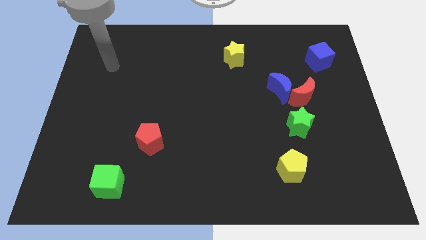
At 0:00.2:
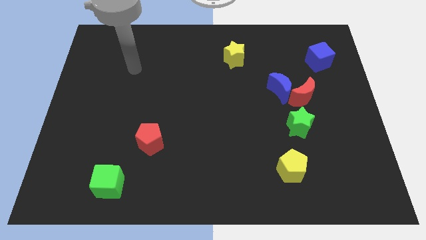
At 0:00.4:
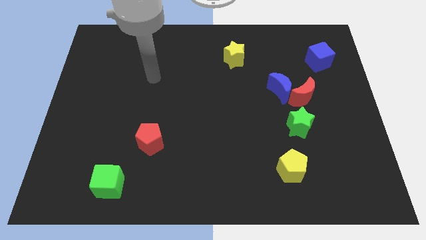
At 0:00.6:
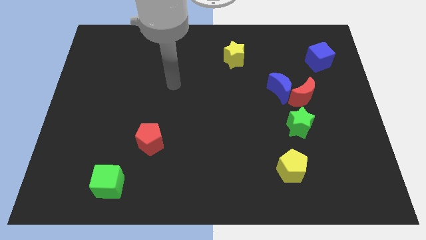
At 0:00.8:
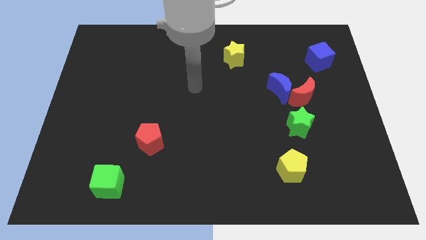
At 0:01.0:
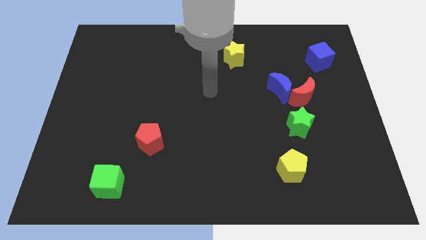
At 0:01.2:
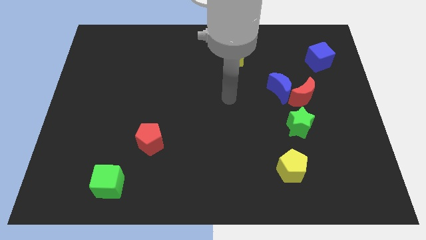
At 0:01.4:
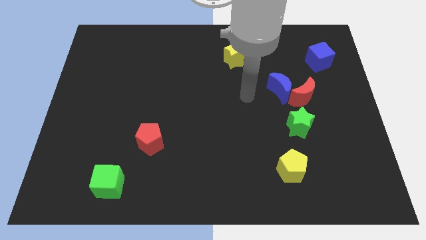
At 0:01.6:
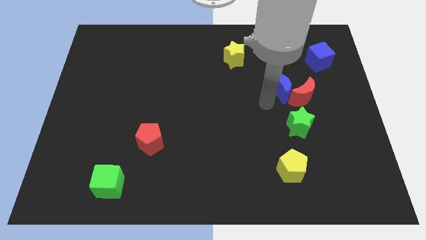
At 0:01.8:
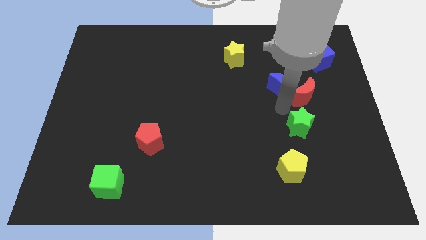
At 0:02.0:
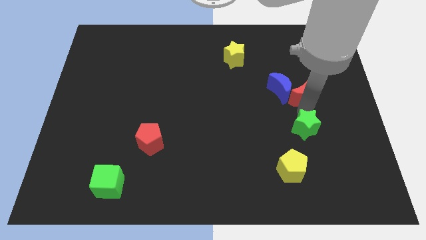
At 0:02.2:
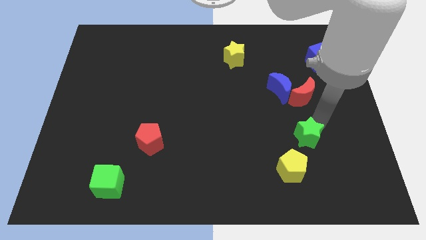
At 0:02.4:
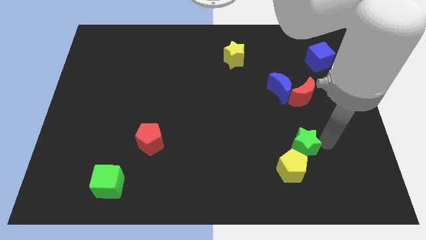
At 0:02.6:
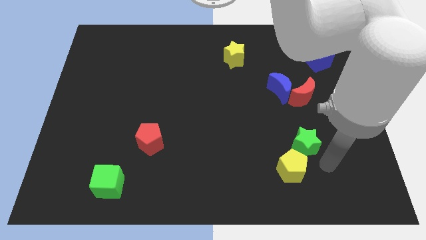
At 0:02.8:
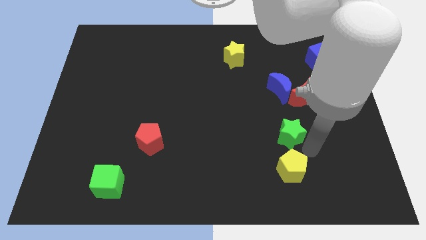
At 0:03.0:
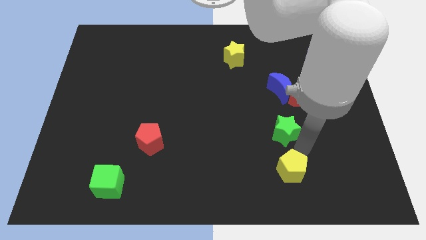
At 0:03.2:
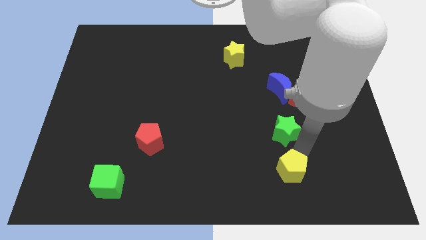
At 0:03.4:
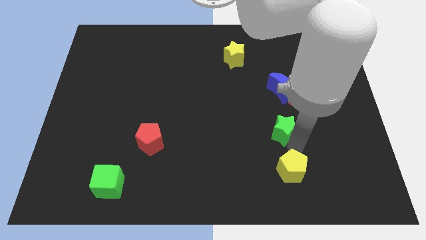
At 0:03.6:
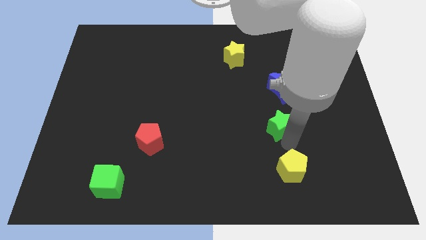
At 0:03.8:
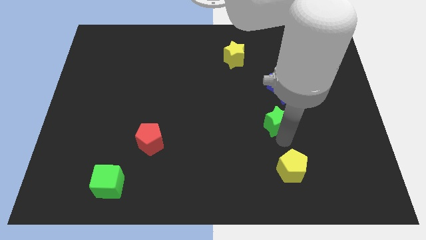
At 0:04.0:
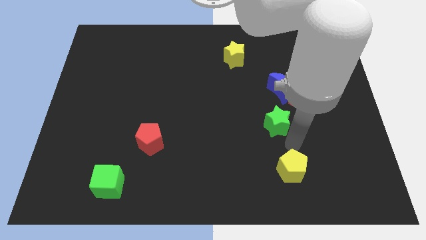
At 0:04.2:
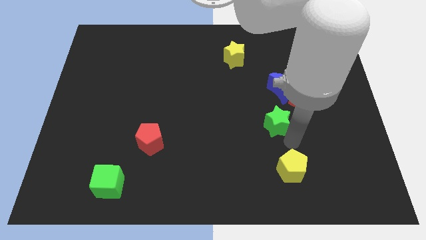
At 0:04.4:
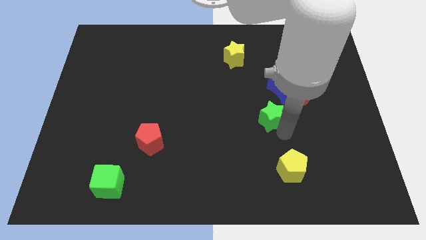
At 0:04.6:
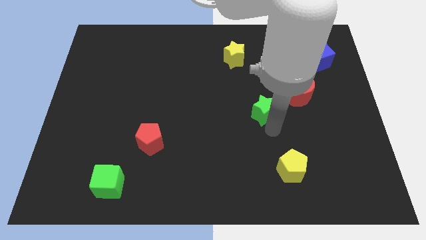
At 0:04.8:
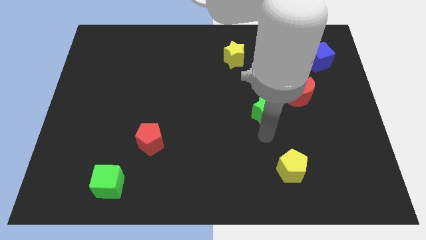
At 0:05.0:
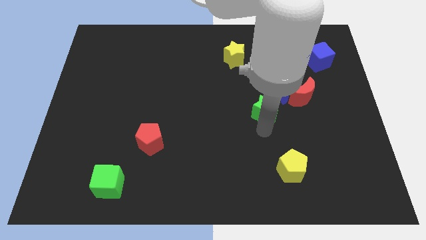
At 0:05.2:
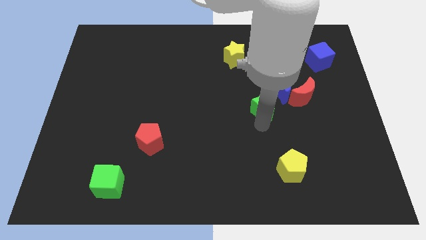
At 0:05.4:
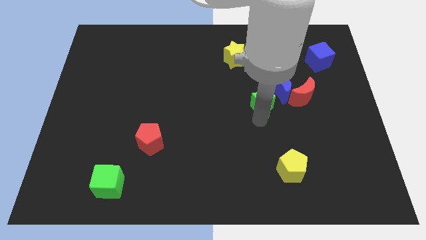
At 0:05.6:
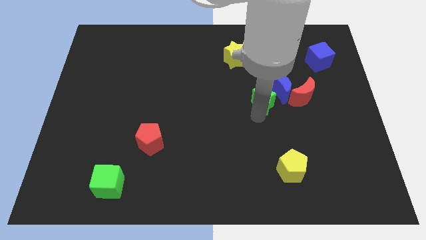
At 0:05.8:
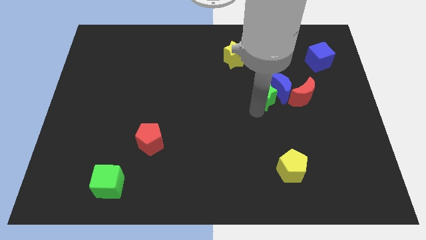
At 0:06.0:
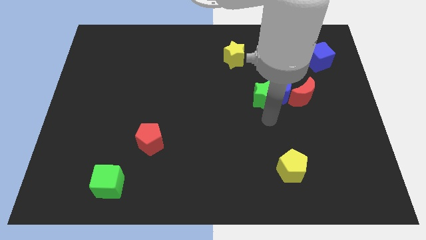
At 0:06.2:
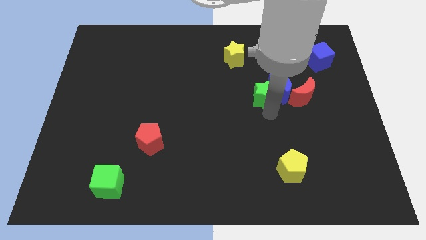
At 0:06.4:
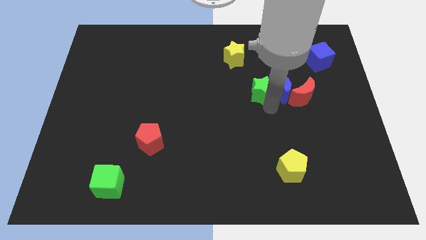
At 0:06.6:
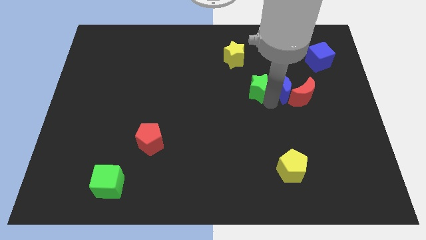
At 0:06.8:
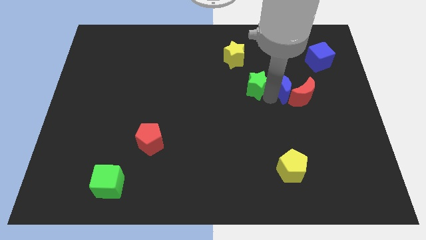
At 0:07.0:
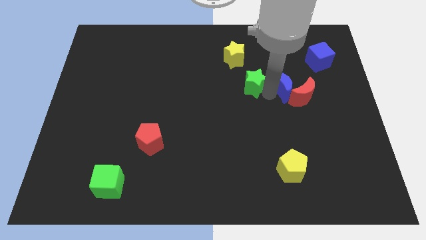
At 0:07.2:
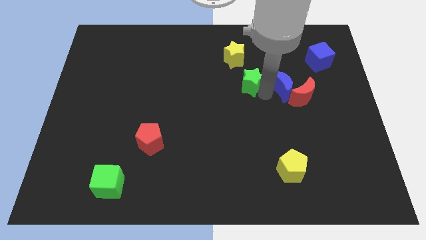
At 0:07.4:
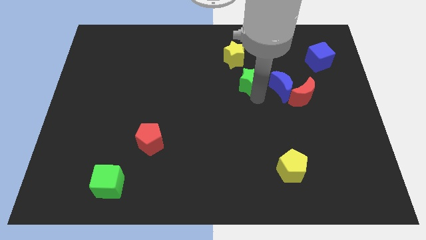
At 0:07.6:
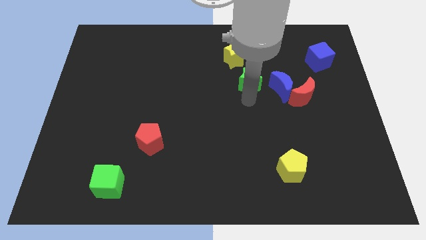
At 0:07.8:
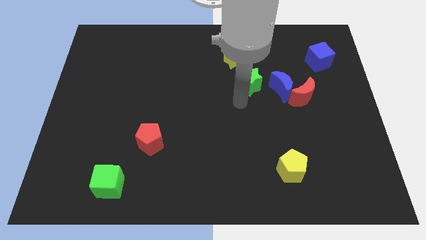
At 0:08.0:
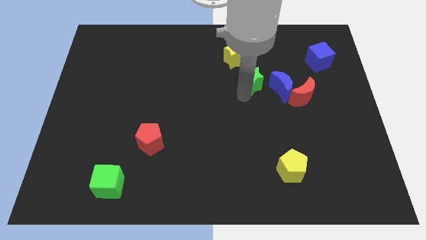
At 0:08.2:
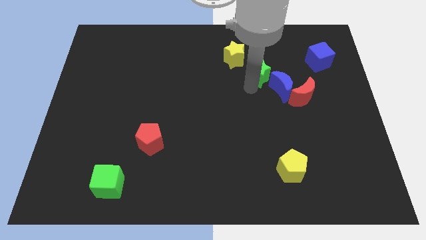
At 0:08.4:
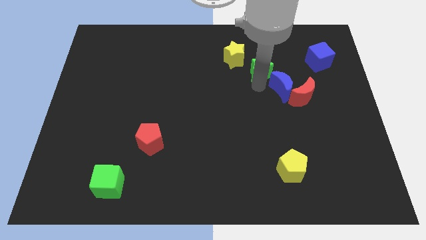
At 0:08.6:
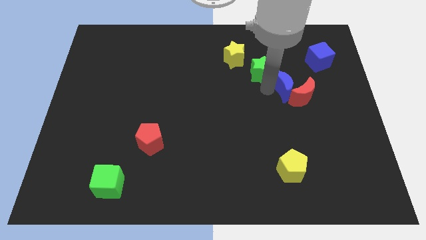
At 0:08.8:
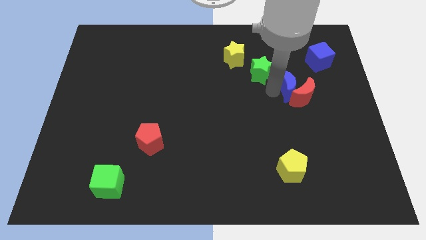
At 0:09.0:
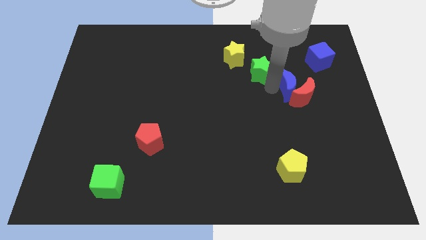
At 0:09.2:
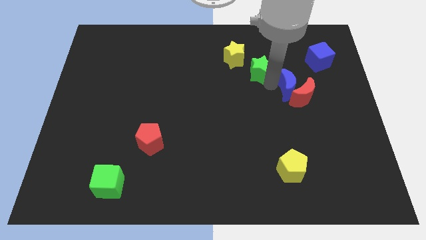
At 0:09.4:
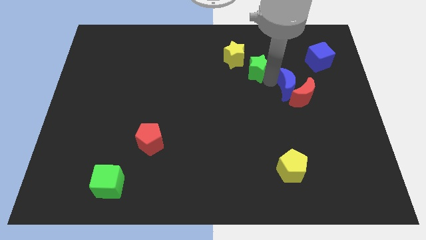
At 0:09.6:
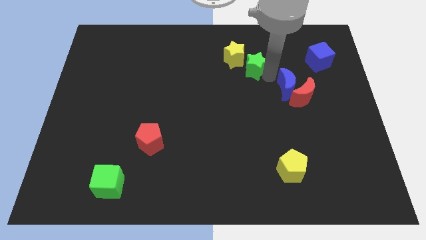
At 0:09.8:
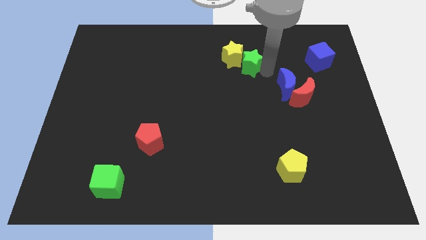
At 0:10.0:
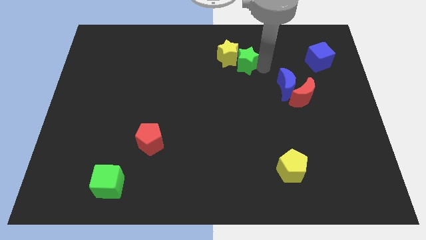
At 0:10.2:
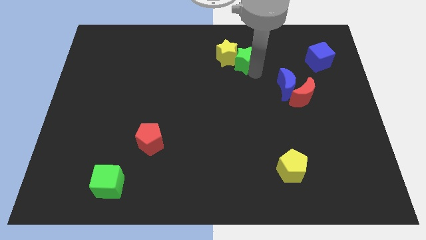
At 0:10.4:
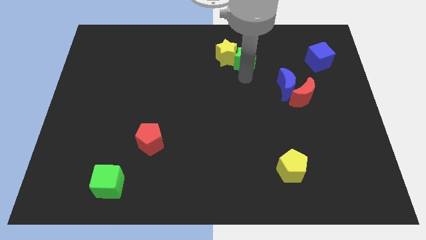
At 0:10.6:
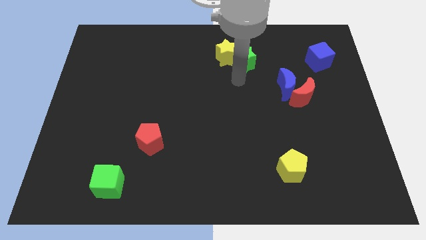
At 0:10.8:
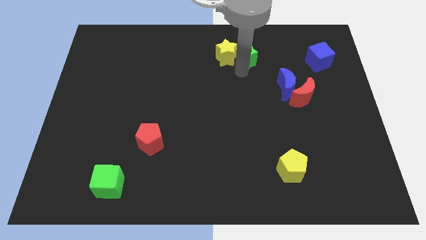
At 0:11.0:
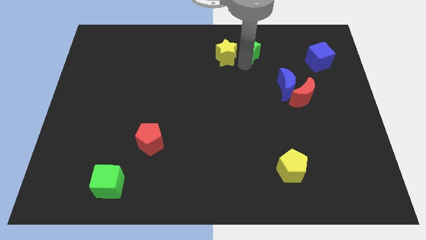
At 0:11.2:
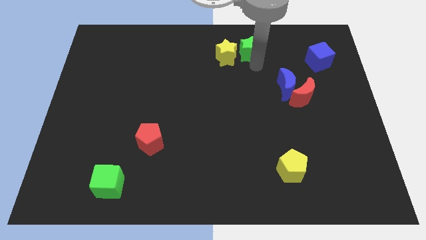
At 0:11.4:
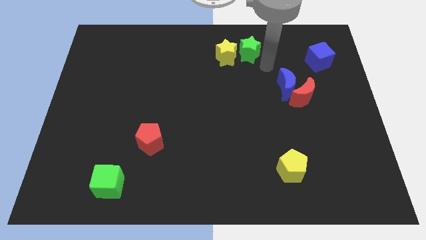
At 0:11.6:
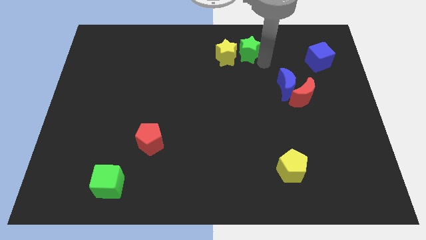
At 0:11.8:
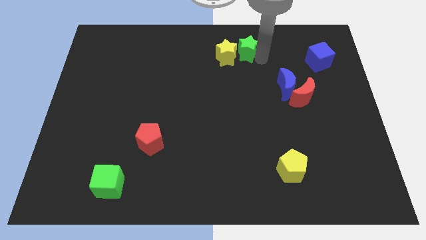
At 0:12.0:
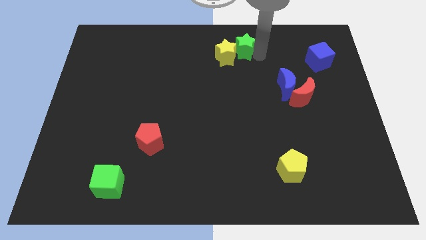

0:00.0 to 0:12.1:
push the green star to the top side

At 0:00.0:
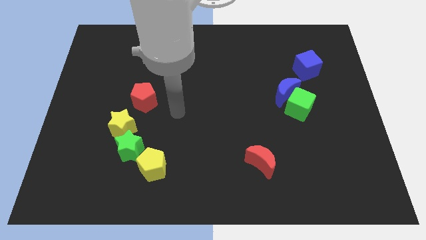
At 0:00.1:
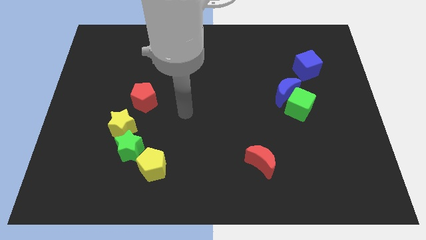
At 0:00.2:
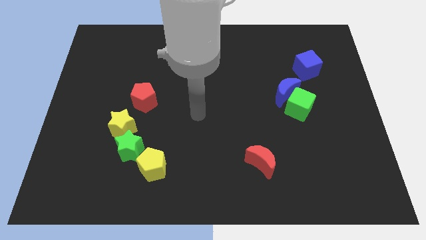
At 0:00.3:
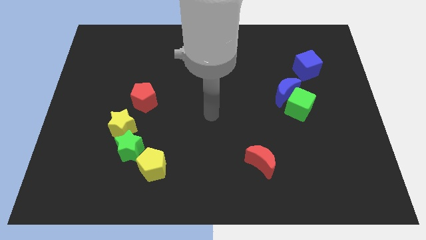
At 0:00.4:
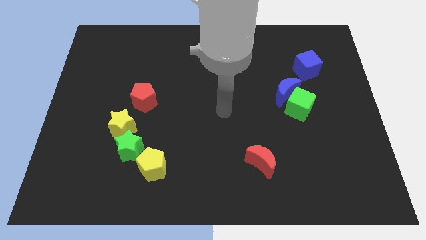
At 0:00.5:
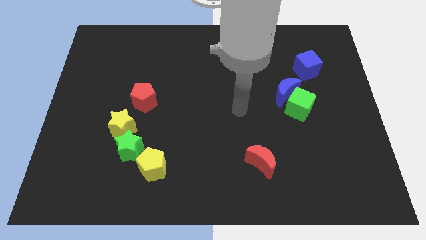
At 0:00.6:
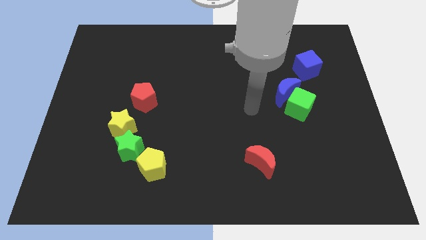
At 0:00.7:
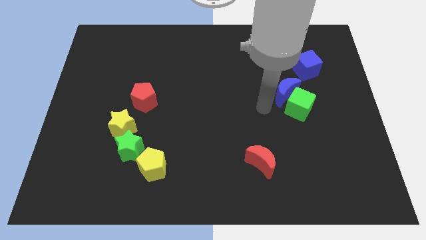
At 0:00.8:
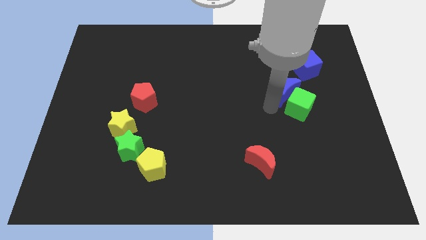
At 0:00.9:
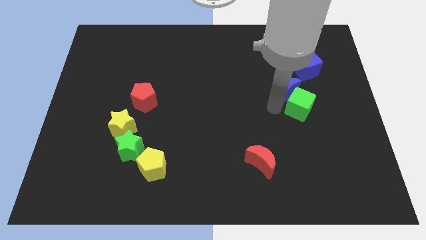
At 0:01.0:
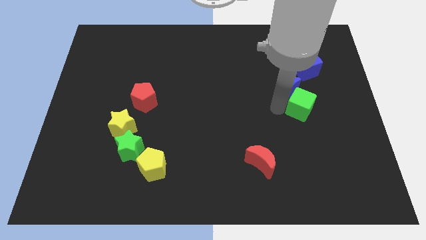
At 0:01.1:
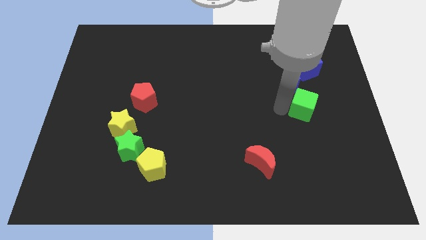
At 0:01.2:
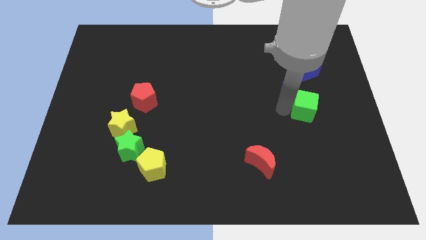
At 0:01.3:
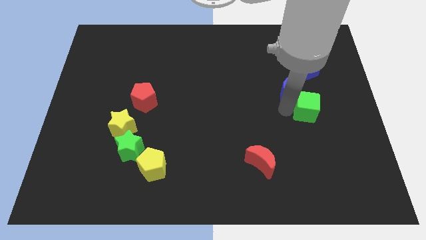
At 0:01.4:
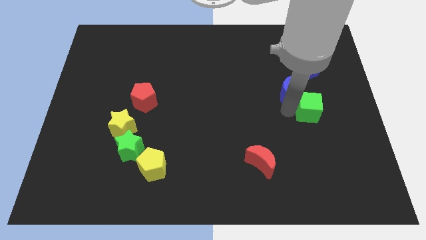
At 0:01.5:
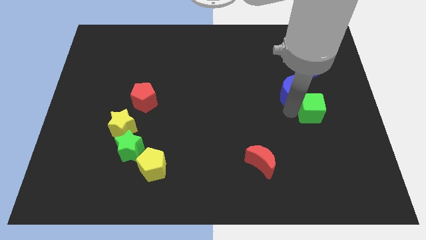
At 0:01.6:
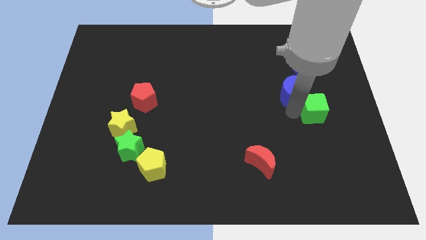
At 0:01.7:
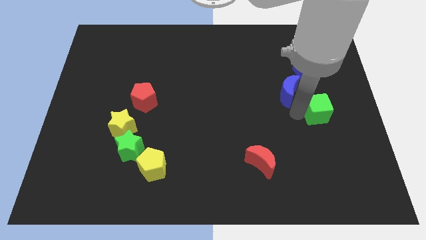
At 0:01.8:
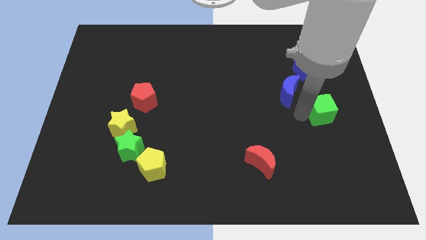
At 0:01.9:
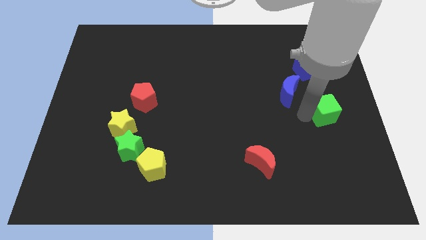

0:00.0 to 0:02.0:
put the green cube to the center right
